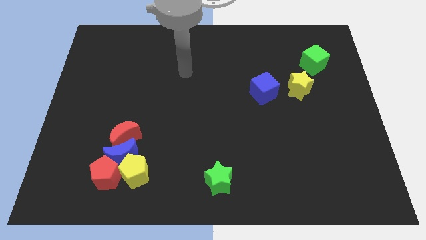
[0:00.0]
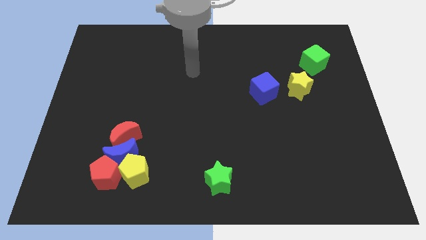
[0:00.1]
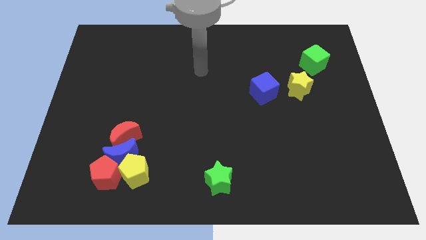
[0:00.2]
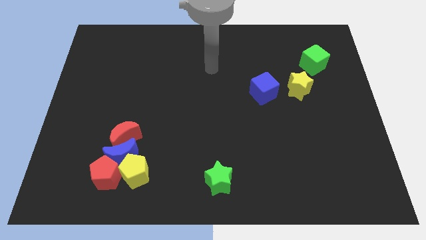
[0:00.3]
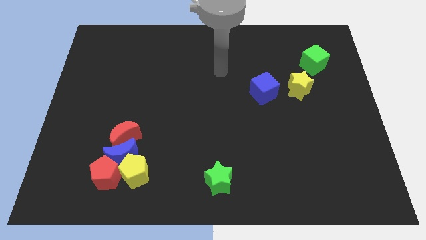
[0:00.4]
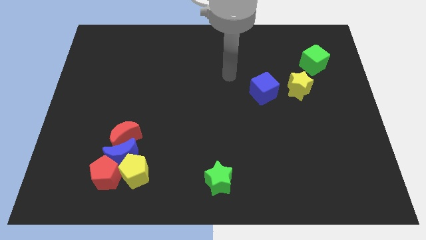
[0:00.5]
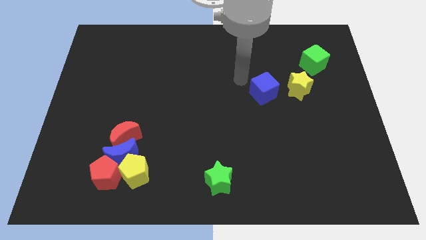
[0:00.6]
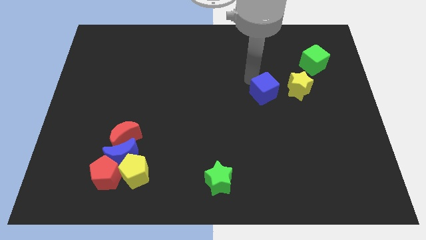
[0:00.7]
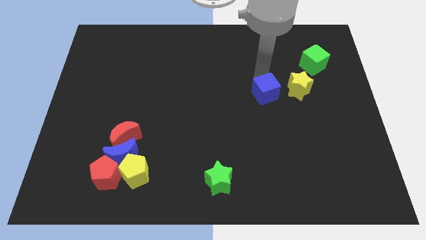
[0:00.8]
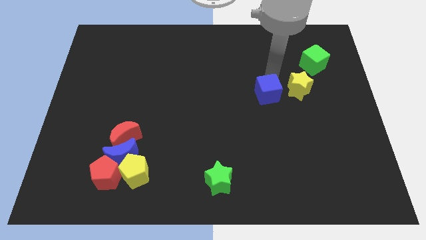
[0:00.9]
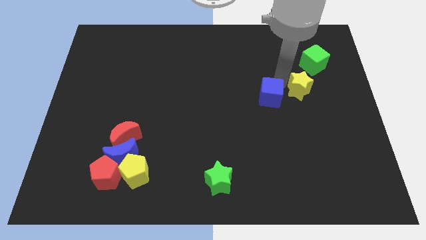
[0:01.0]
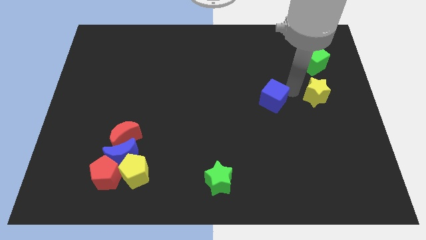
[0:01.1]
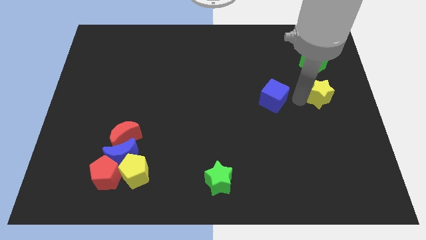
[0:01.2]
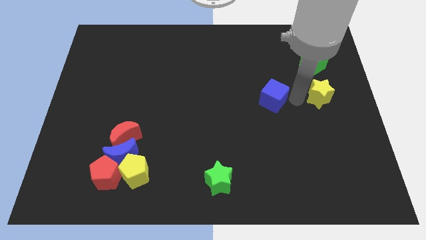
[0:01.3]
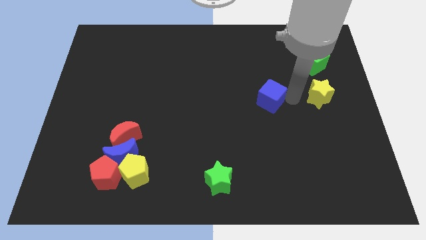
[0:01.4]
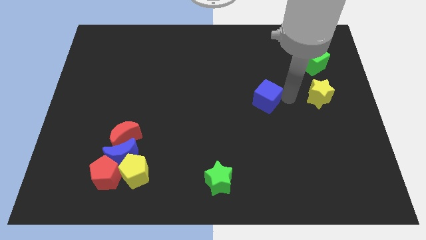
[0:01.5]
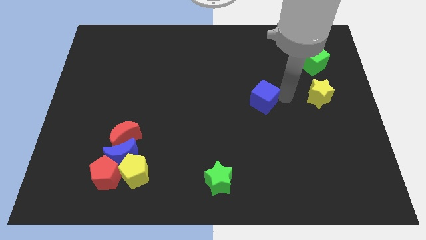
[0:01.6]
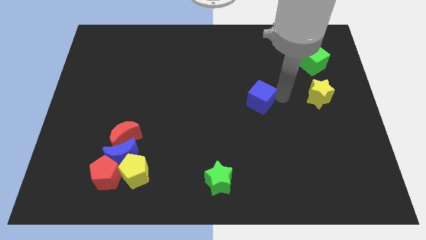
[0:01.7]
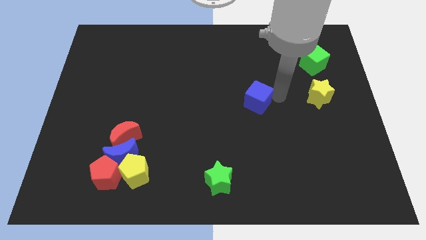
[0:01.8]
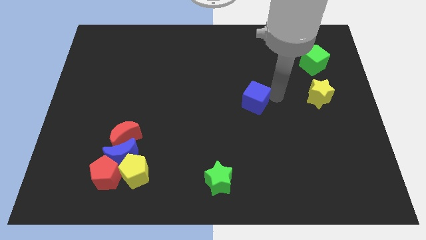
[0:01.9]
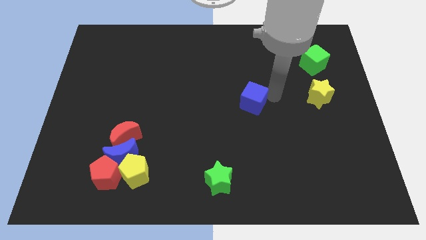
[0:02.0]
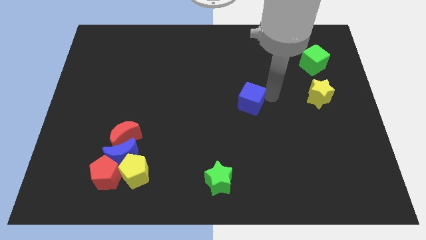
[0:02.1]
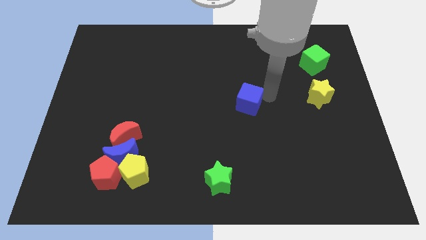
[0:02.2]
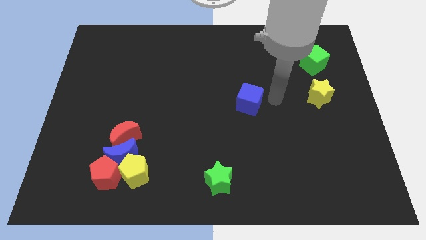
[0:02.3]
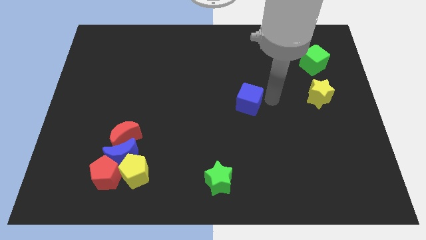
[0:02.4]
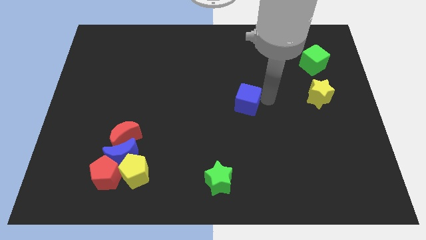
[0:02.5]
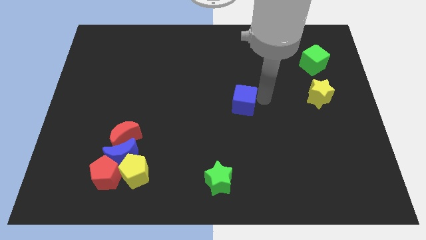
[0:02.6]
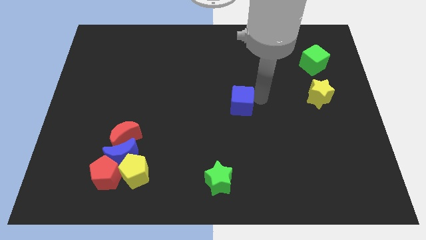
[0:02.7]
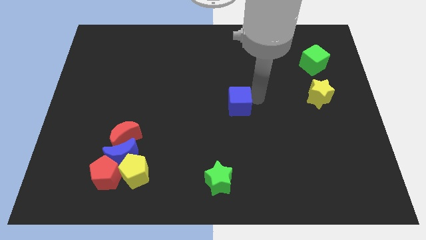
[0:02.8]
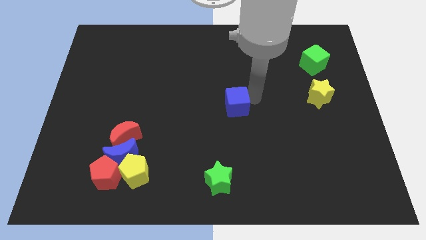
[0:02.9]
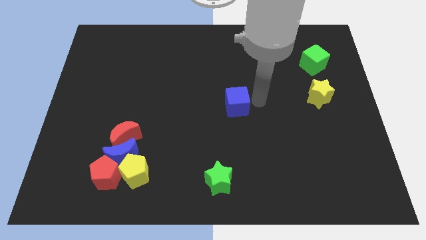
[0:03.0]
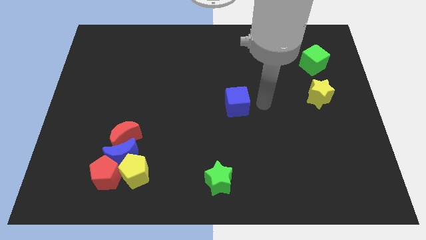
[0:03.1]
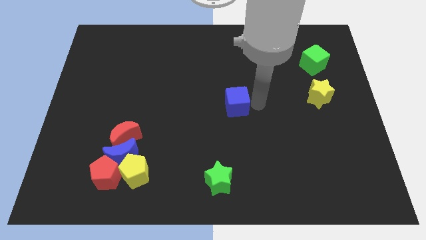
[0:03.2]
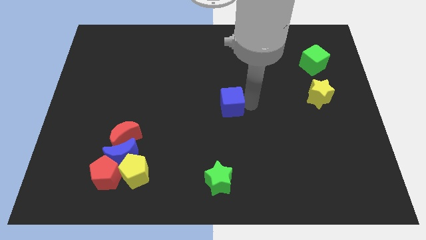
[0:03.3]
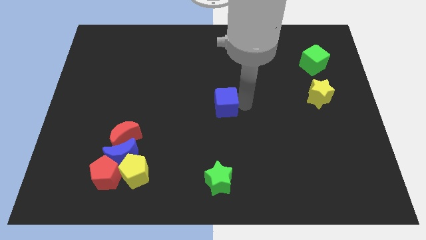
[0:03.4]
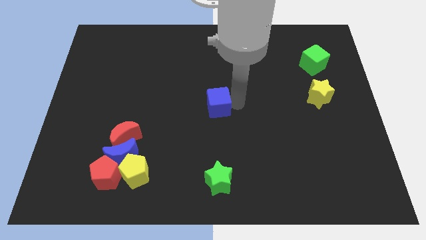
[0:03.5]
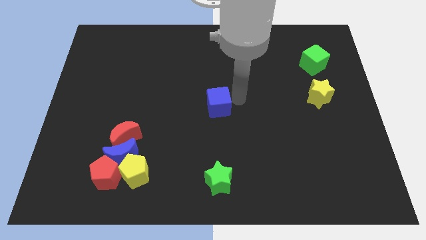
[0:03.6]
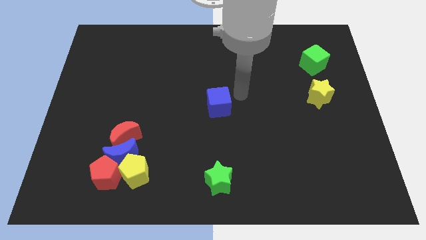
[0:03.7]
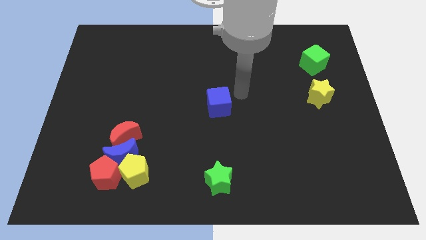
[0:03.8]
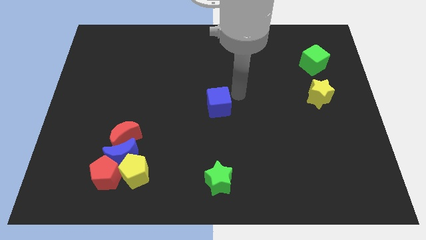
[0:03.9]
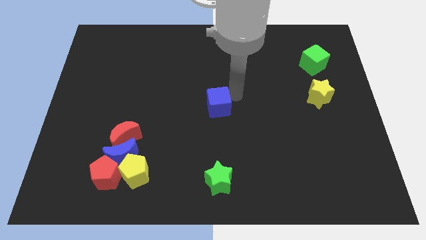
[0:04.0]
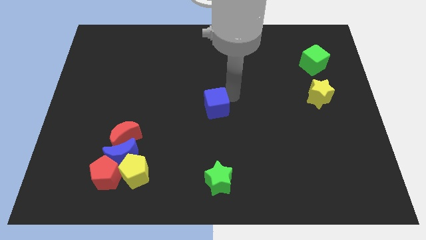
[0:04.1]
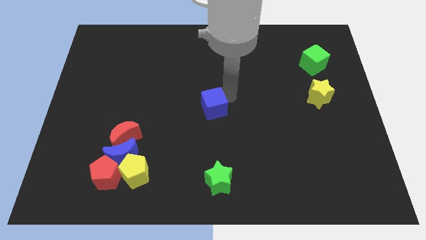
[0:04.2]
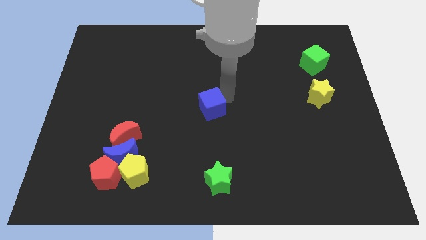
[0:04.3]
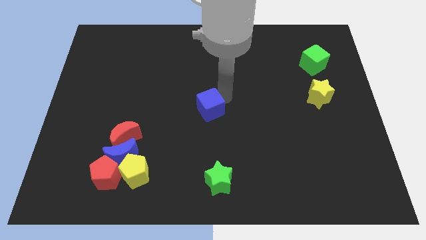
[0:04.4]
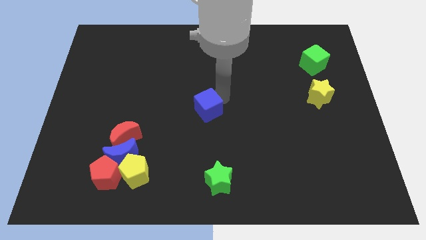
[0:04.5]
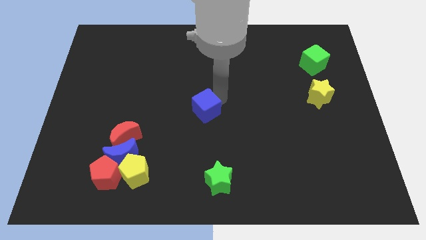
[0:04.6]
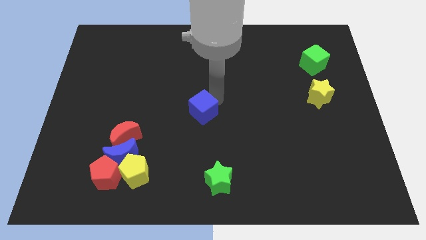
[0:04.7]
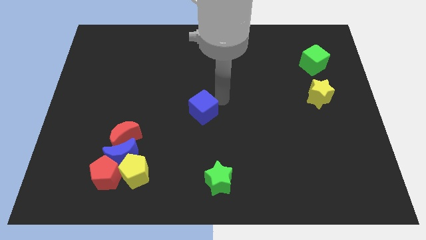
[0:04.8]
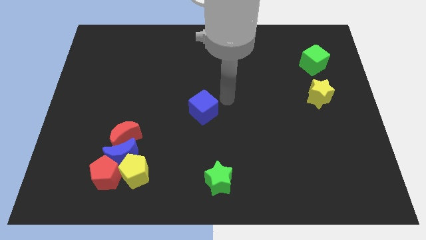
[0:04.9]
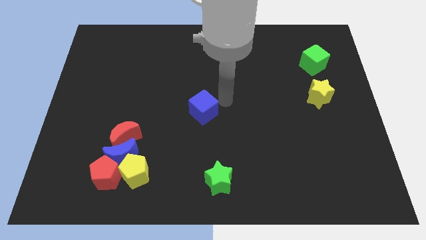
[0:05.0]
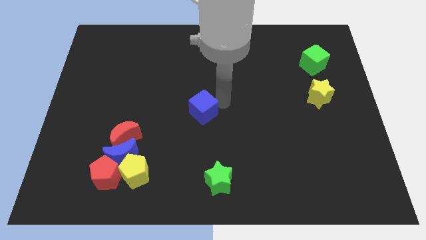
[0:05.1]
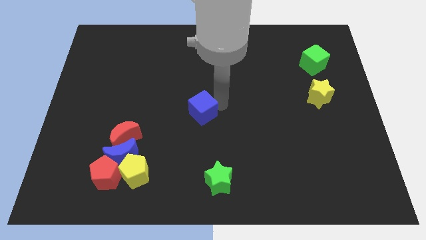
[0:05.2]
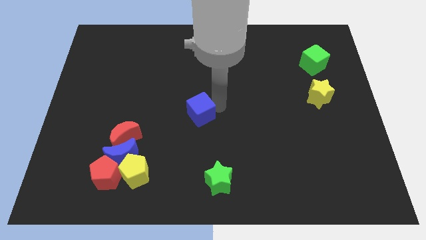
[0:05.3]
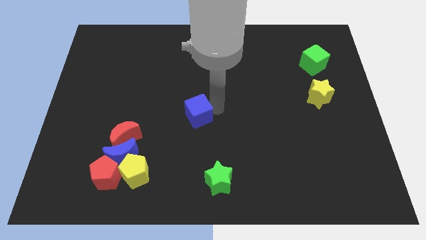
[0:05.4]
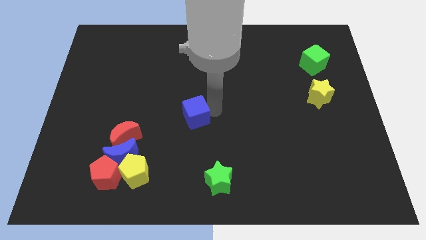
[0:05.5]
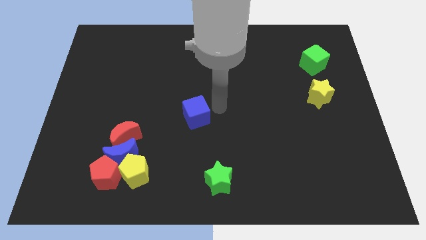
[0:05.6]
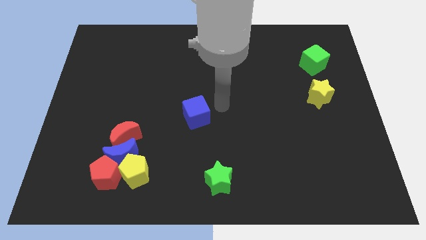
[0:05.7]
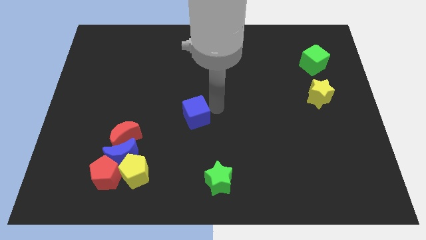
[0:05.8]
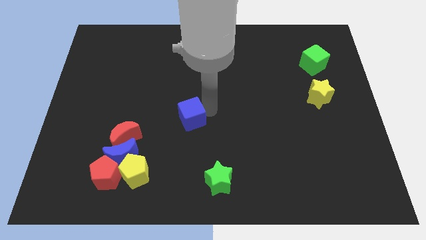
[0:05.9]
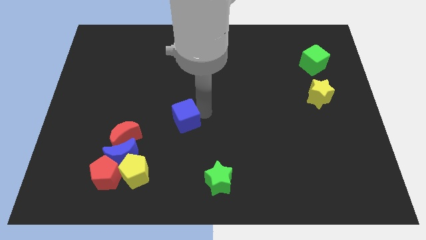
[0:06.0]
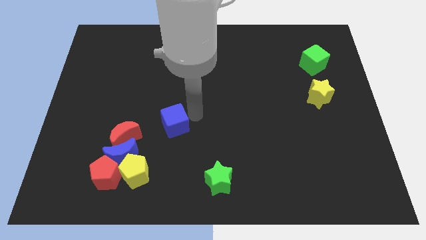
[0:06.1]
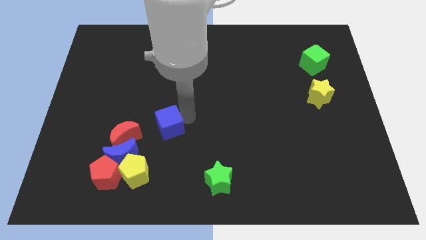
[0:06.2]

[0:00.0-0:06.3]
move the blue cube to the top right of the blue moon
